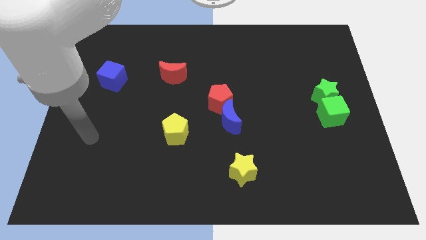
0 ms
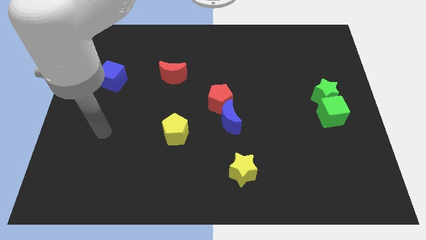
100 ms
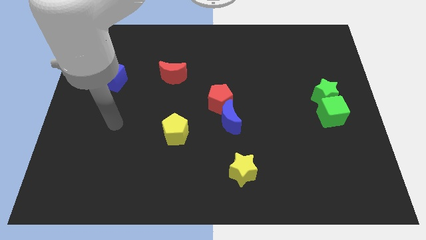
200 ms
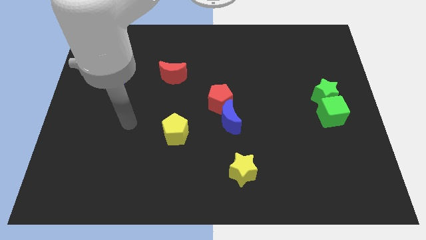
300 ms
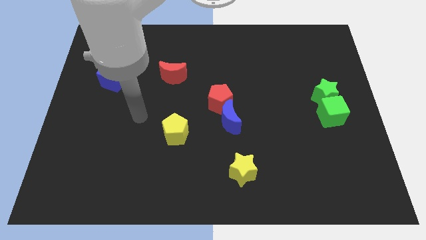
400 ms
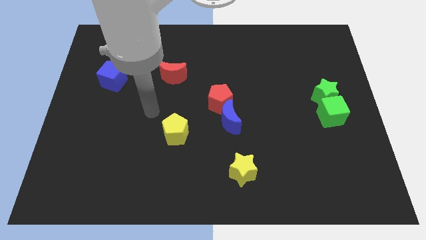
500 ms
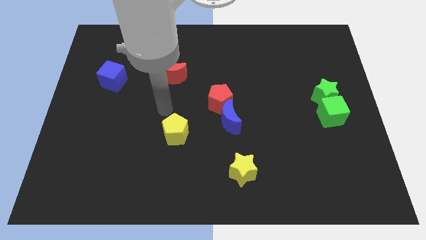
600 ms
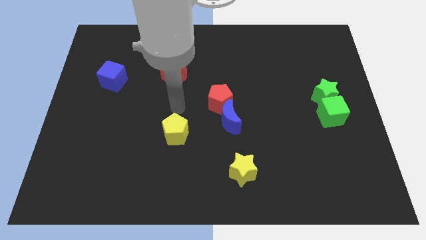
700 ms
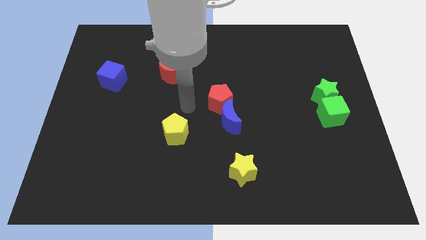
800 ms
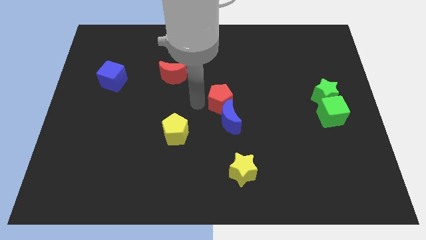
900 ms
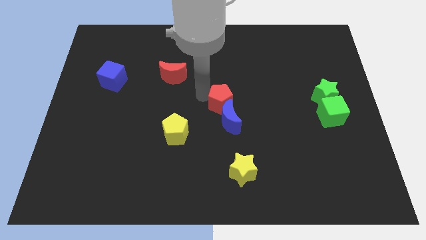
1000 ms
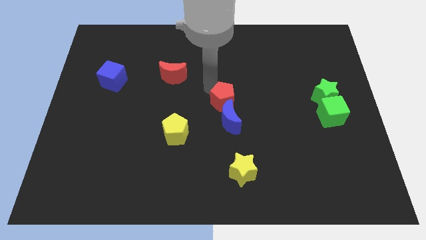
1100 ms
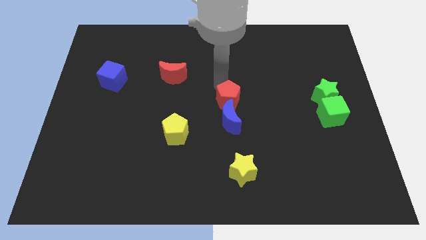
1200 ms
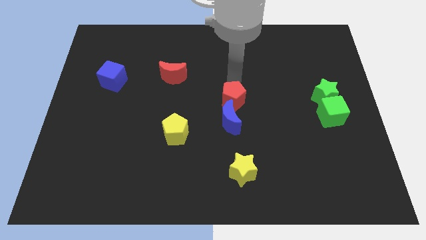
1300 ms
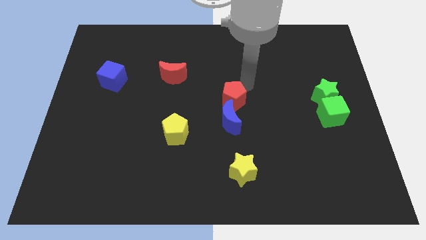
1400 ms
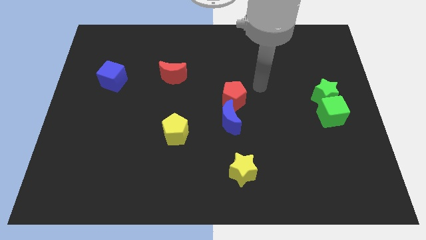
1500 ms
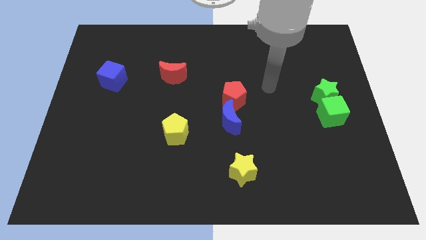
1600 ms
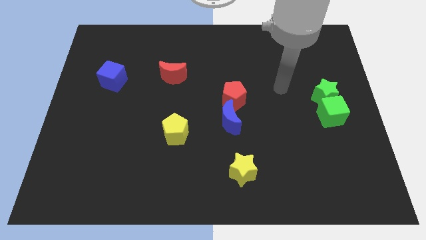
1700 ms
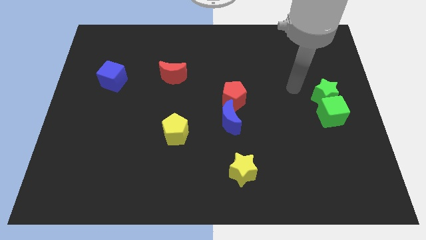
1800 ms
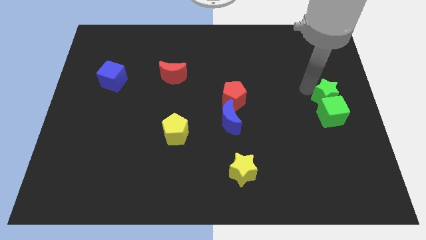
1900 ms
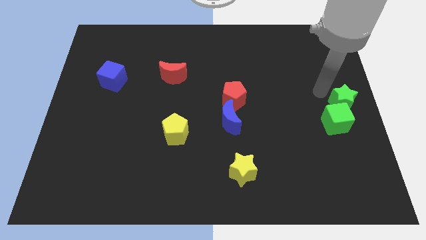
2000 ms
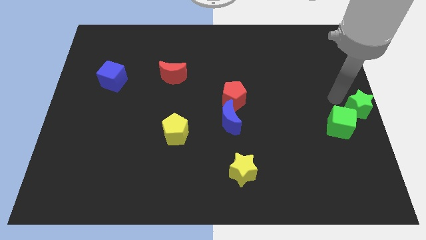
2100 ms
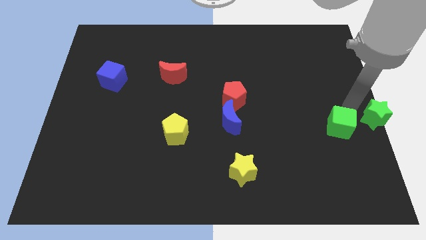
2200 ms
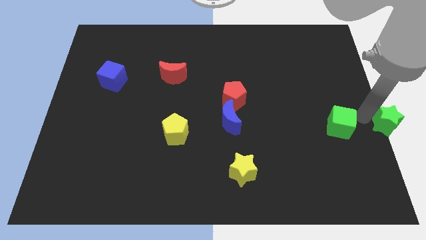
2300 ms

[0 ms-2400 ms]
pull the green cube apart from the green star

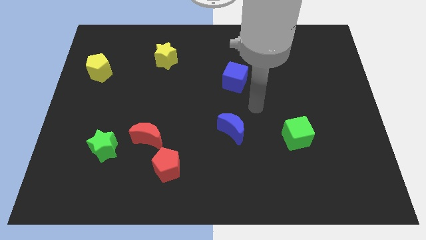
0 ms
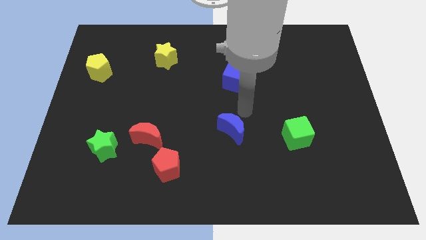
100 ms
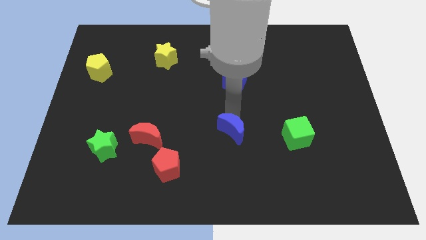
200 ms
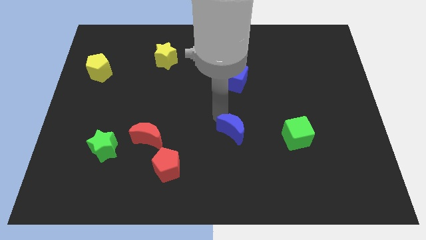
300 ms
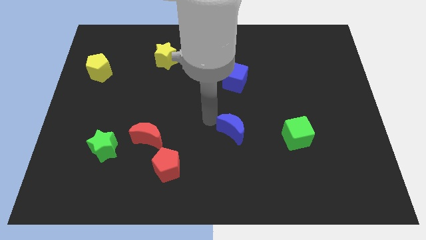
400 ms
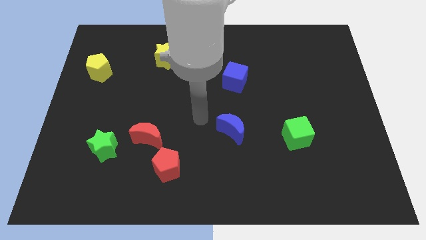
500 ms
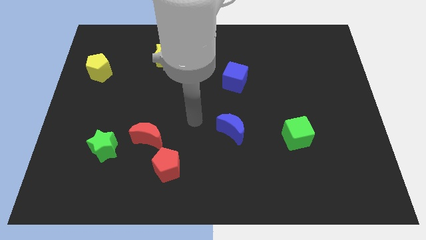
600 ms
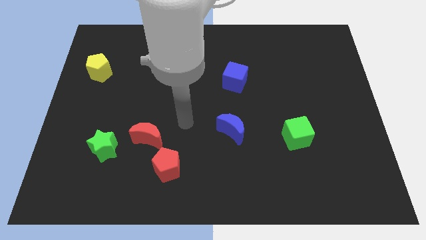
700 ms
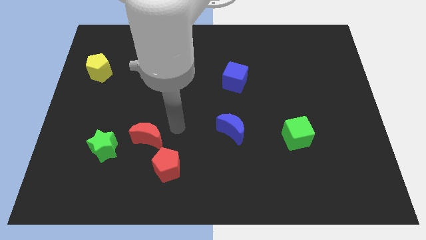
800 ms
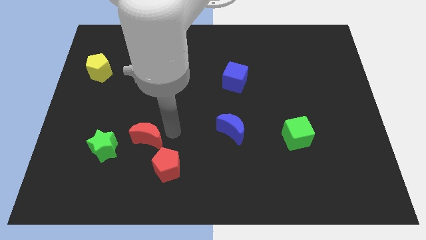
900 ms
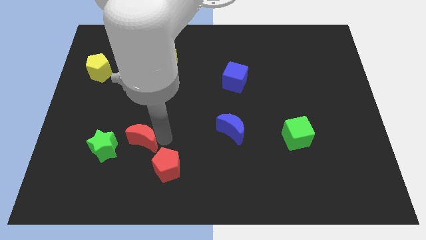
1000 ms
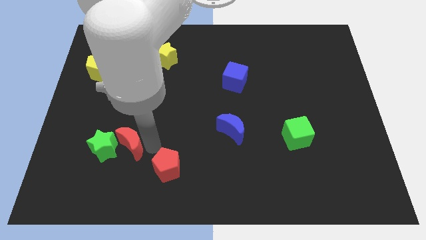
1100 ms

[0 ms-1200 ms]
move the red pentagon away from the red moon

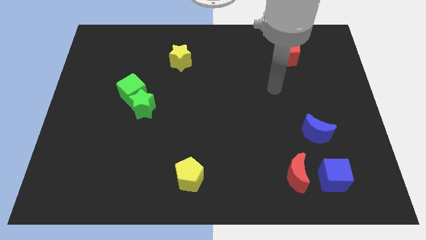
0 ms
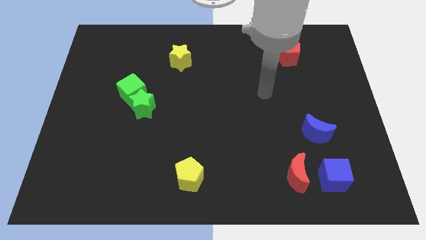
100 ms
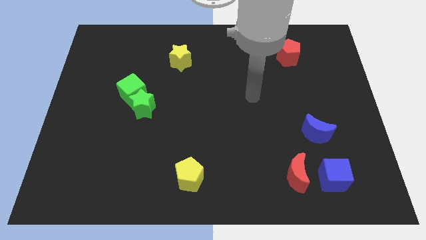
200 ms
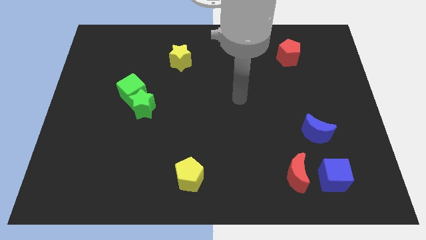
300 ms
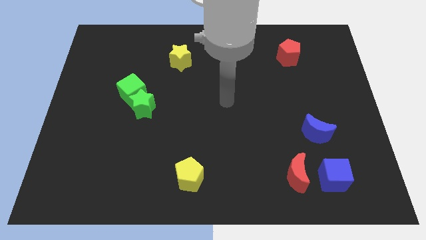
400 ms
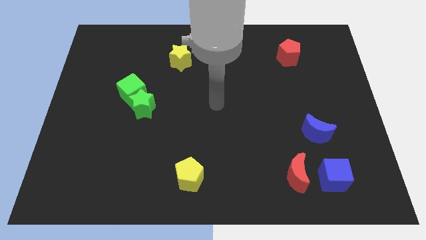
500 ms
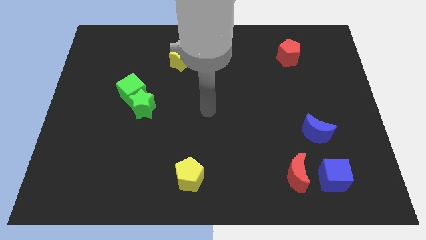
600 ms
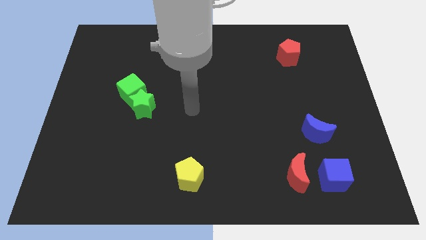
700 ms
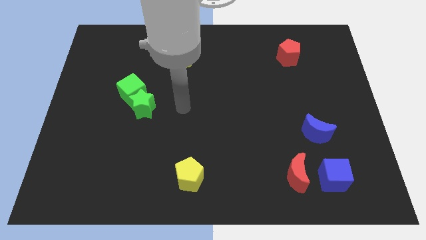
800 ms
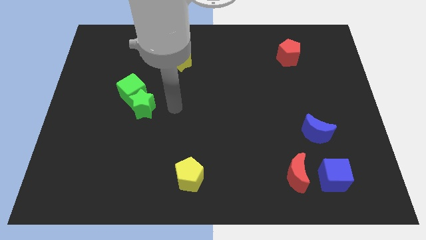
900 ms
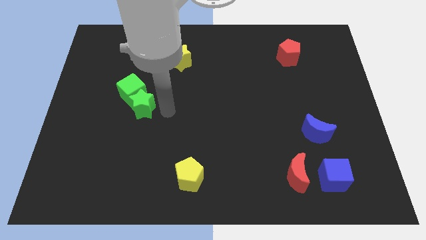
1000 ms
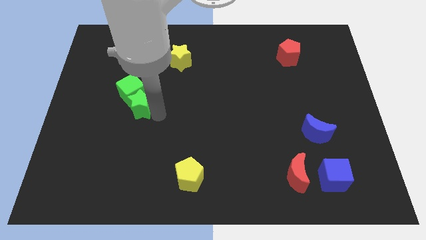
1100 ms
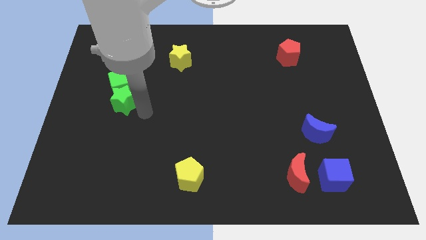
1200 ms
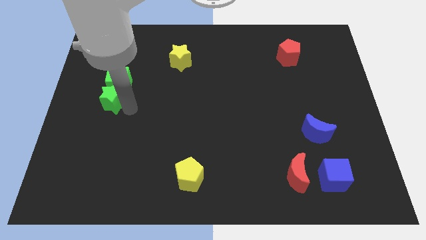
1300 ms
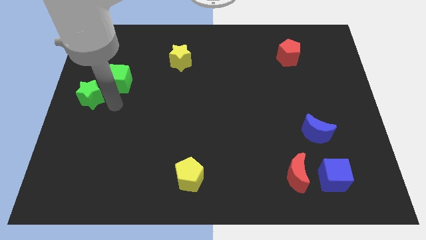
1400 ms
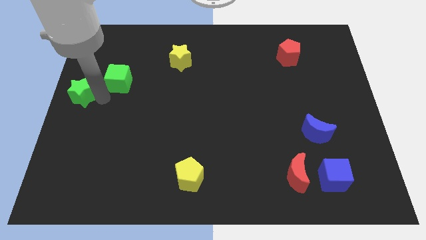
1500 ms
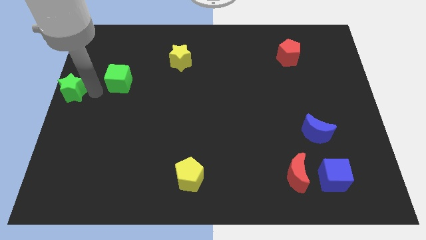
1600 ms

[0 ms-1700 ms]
separate the green cube from the green star

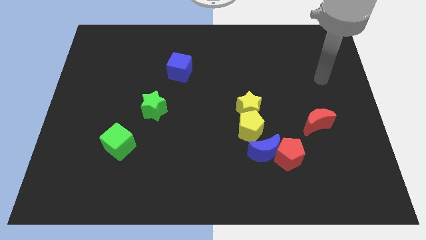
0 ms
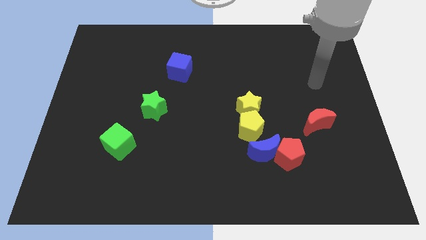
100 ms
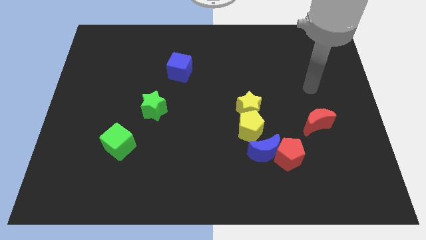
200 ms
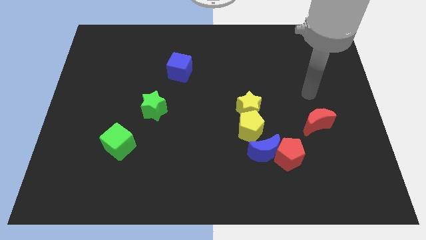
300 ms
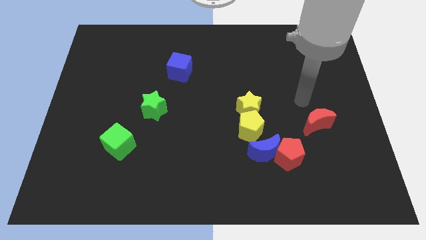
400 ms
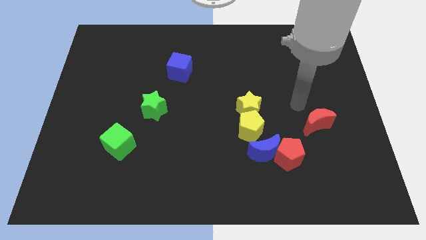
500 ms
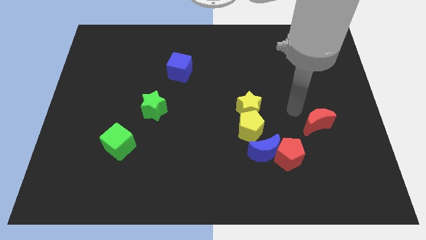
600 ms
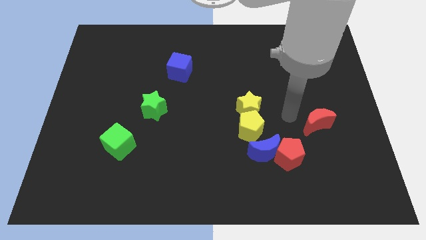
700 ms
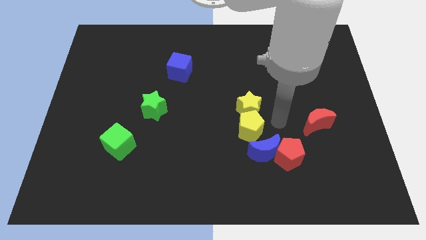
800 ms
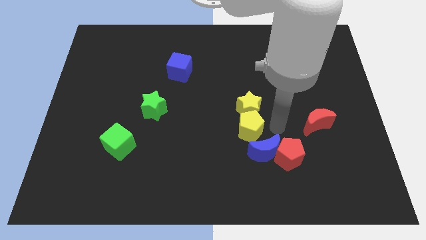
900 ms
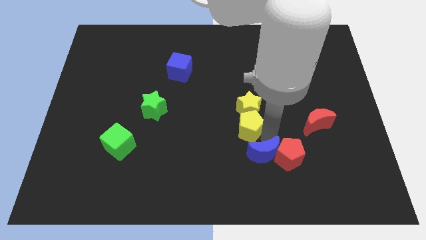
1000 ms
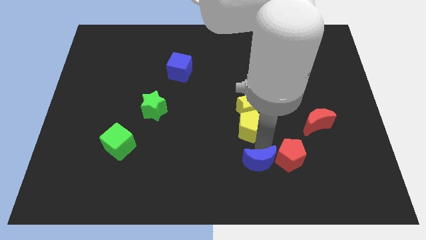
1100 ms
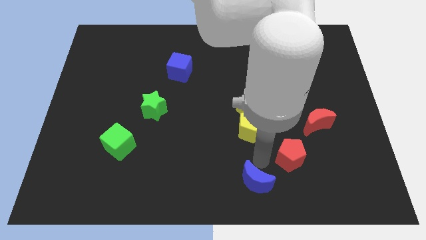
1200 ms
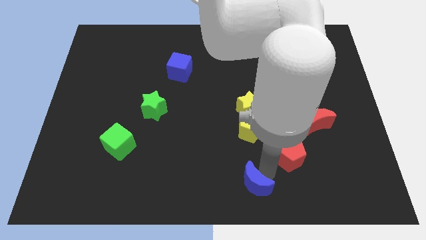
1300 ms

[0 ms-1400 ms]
move the red pentagon away from the blue moon

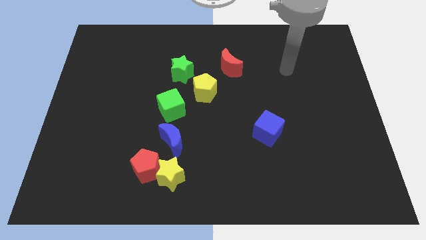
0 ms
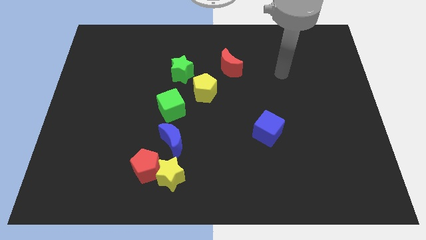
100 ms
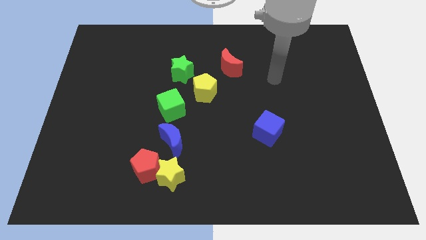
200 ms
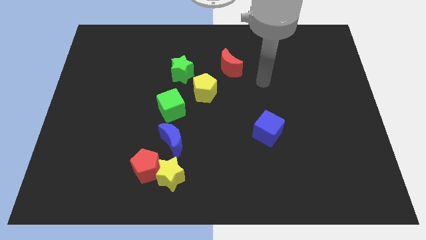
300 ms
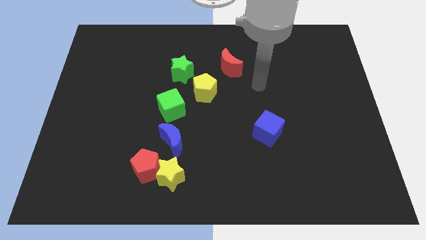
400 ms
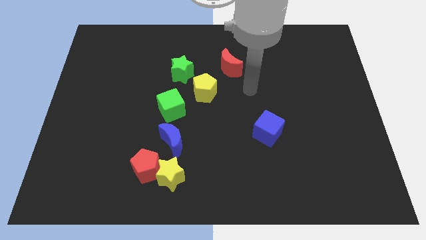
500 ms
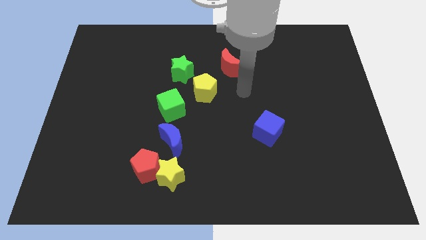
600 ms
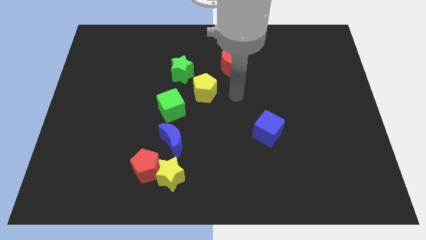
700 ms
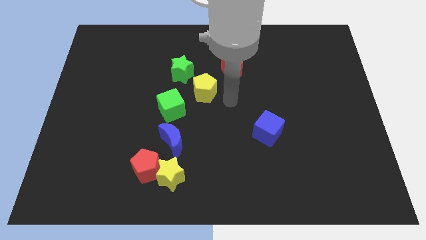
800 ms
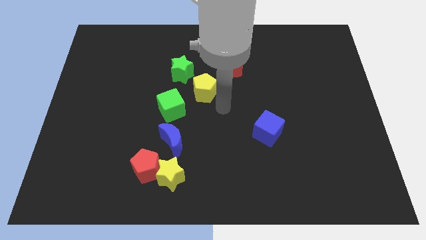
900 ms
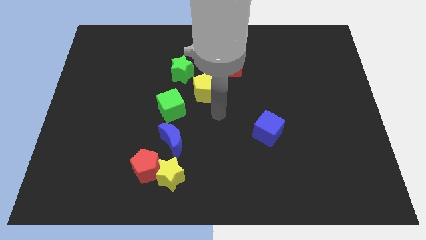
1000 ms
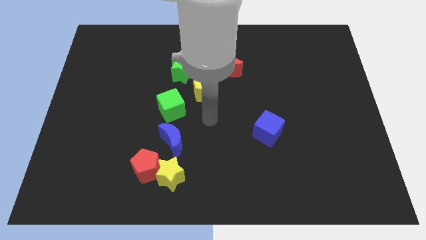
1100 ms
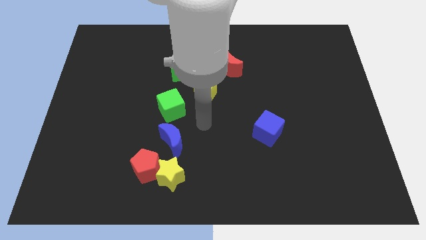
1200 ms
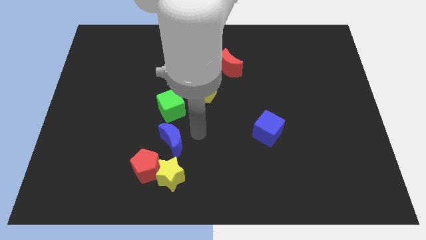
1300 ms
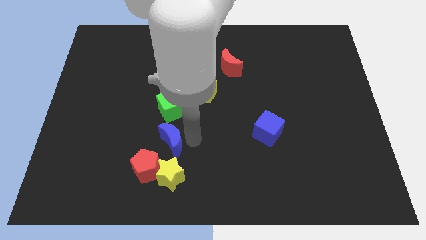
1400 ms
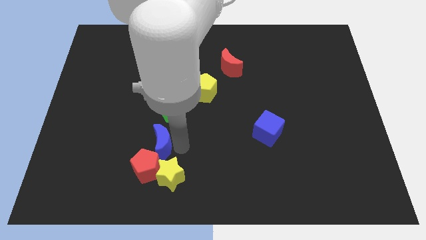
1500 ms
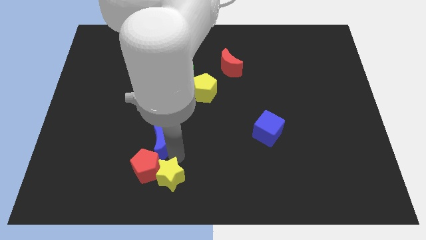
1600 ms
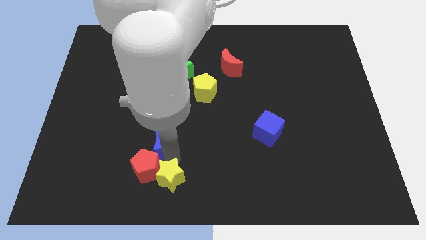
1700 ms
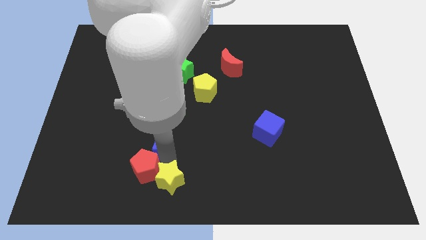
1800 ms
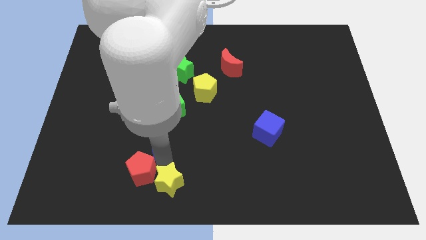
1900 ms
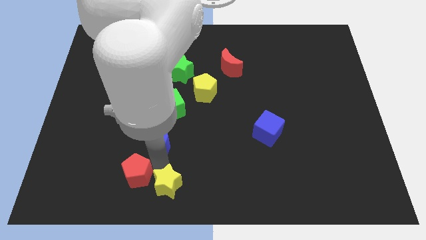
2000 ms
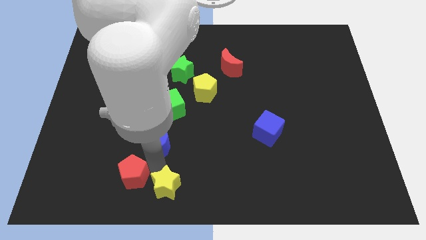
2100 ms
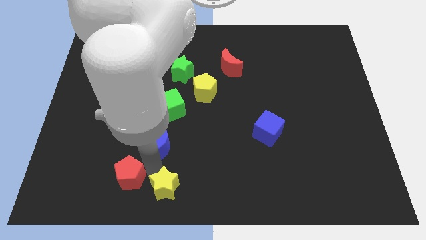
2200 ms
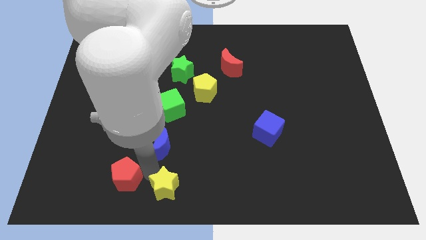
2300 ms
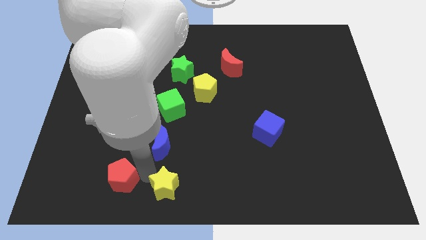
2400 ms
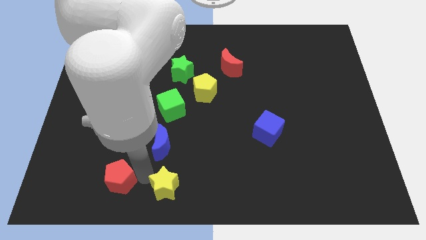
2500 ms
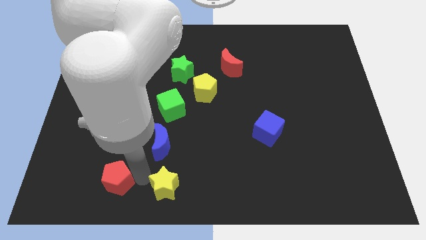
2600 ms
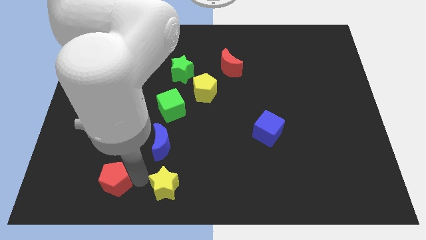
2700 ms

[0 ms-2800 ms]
move the red pentagon away from the yellow star and blue moon
